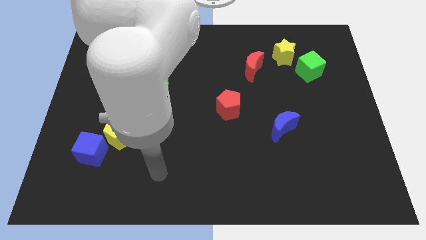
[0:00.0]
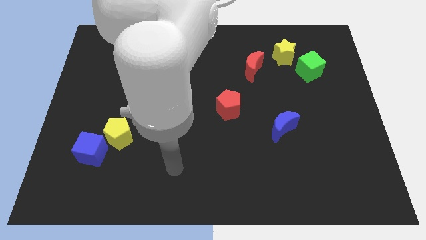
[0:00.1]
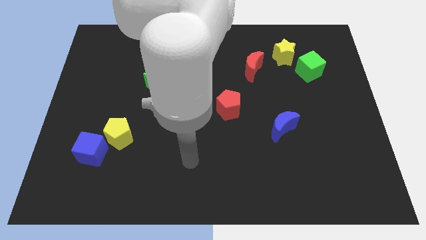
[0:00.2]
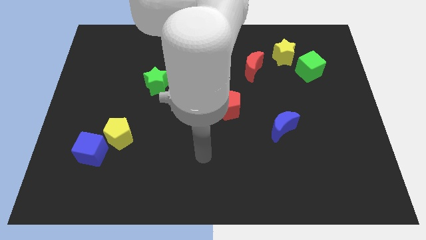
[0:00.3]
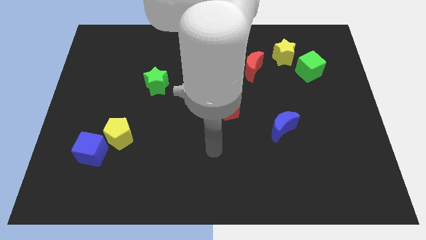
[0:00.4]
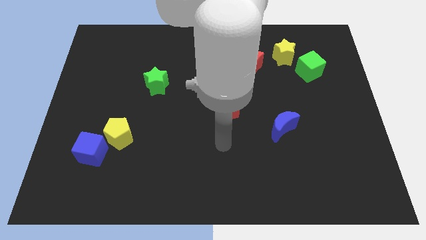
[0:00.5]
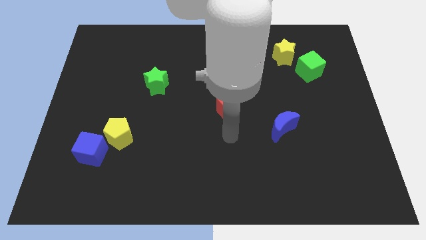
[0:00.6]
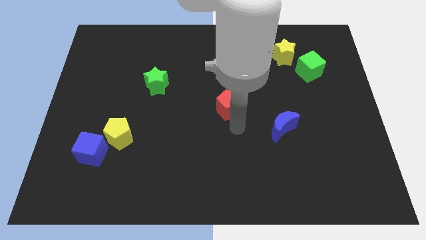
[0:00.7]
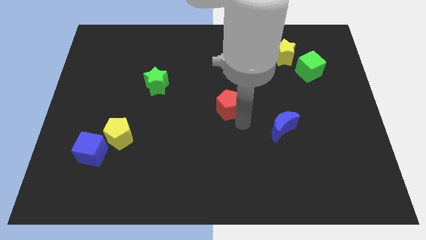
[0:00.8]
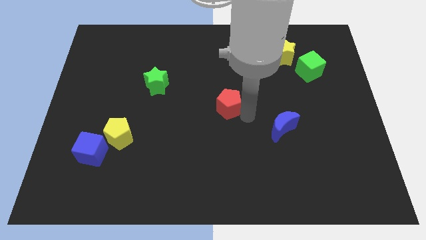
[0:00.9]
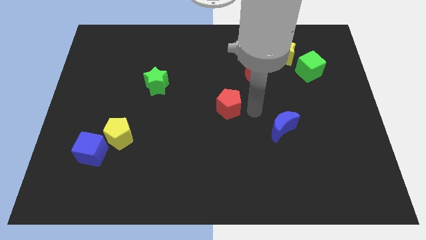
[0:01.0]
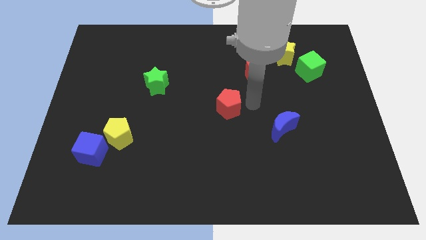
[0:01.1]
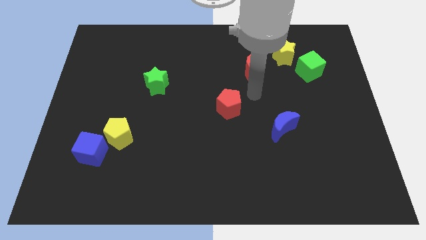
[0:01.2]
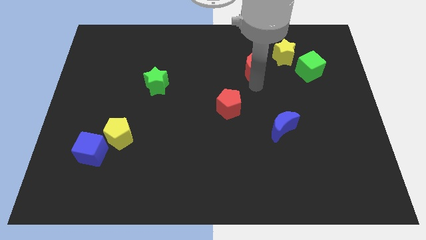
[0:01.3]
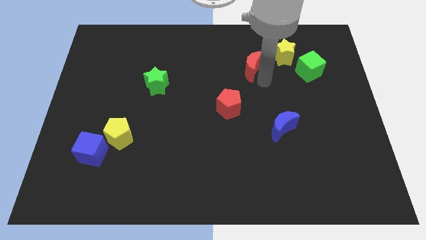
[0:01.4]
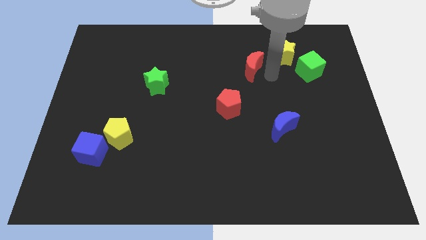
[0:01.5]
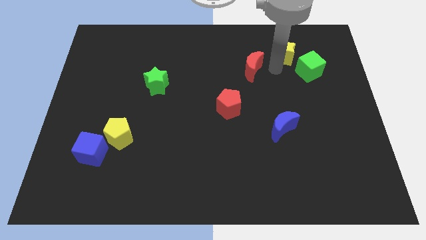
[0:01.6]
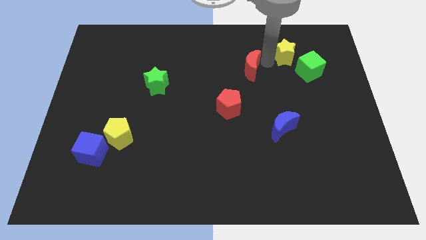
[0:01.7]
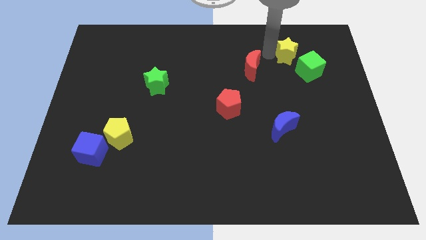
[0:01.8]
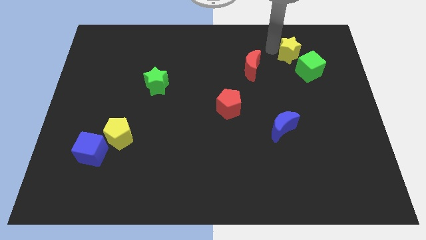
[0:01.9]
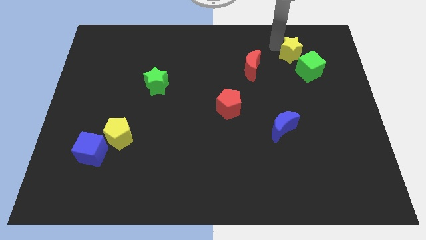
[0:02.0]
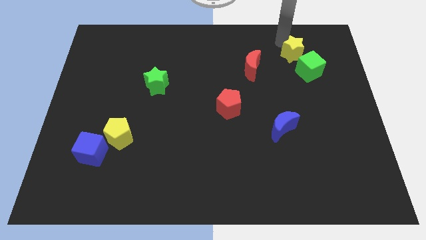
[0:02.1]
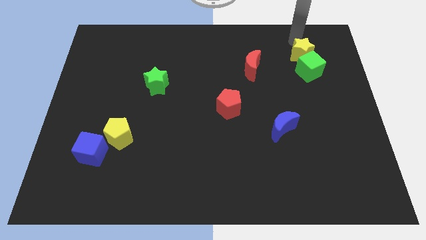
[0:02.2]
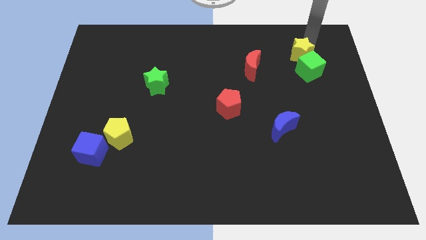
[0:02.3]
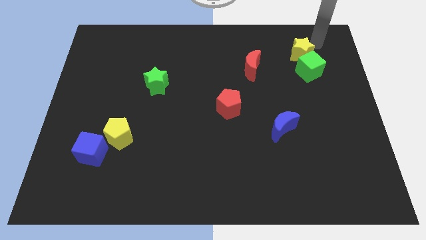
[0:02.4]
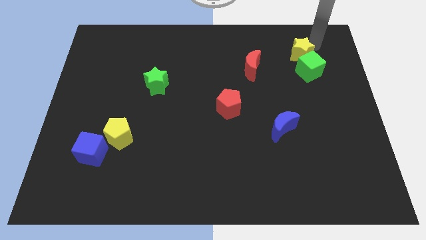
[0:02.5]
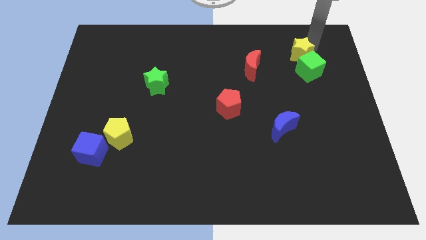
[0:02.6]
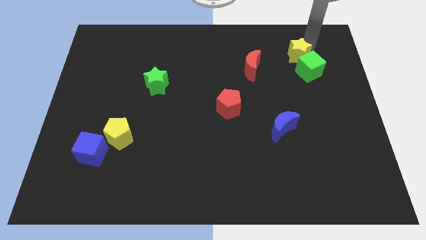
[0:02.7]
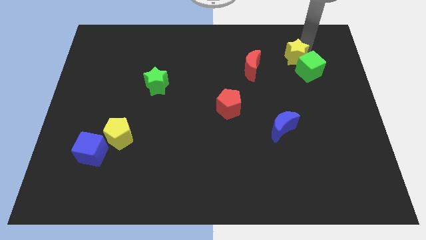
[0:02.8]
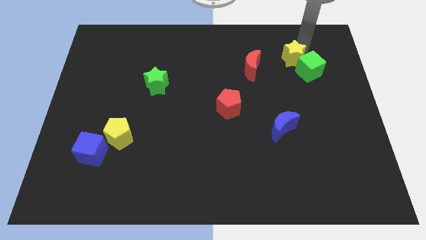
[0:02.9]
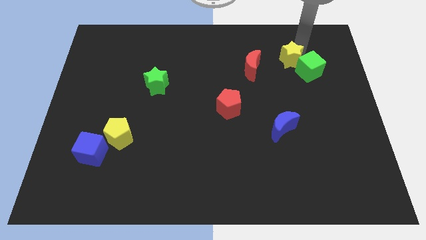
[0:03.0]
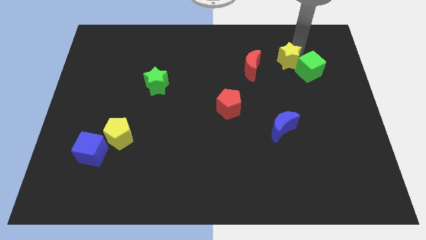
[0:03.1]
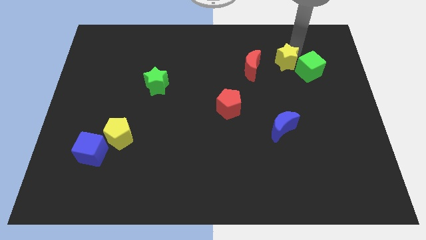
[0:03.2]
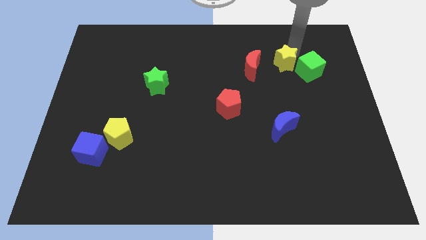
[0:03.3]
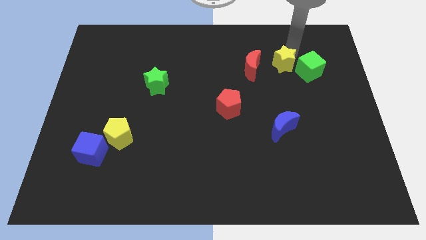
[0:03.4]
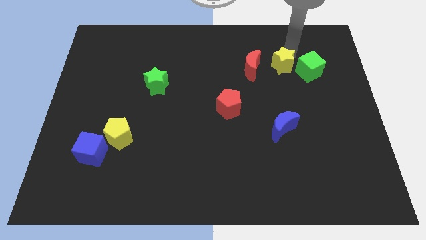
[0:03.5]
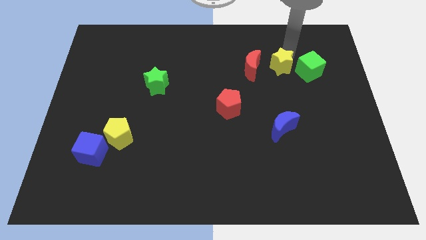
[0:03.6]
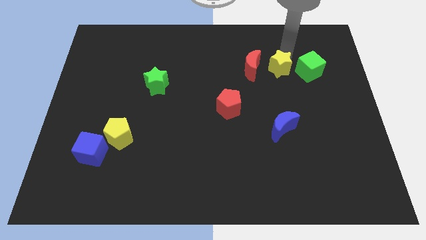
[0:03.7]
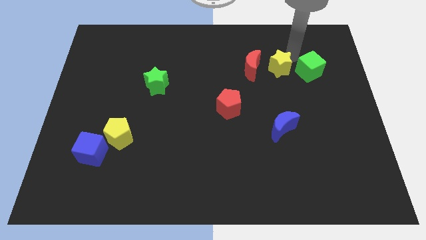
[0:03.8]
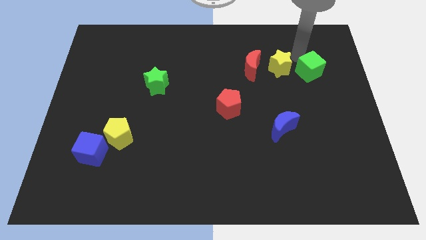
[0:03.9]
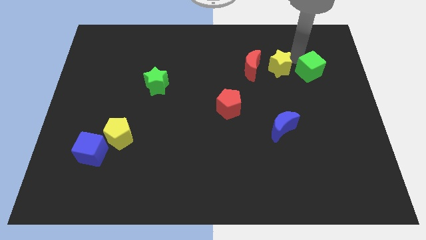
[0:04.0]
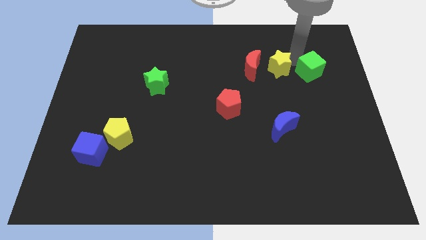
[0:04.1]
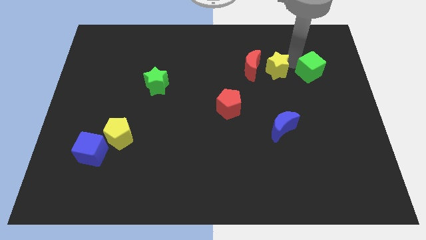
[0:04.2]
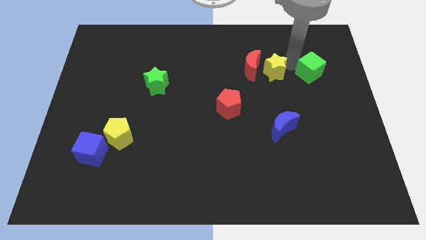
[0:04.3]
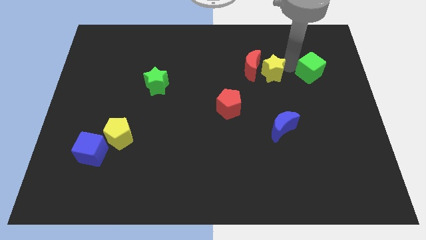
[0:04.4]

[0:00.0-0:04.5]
slightly slide the yellow star down and left

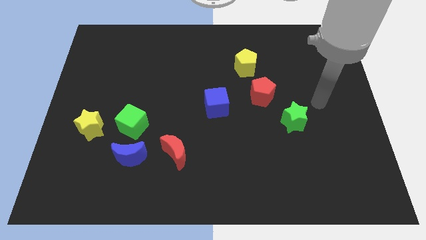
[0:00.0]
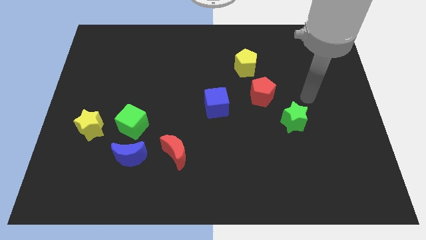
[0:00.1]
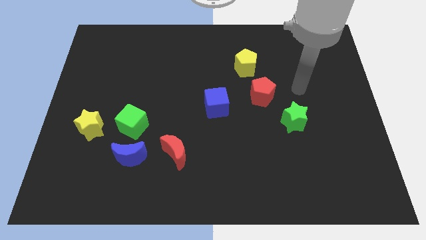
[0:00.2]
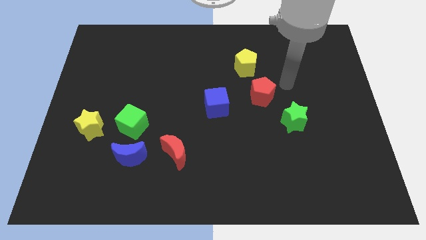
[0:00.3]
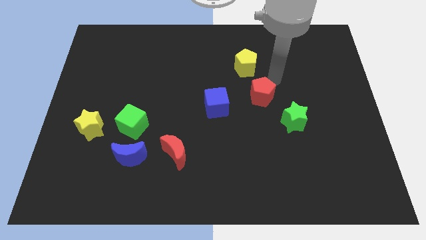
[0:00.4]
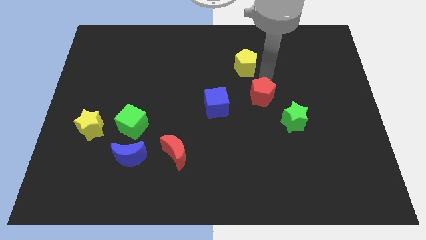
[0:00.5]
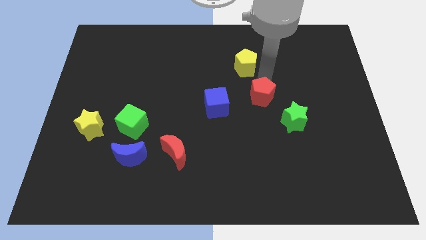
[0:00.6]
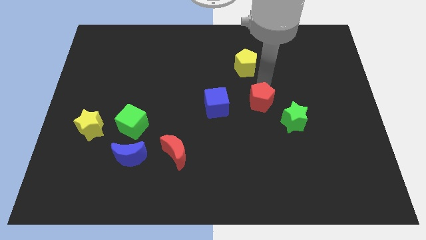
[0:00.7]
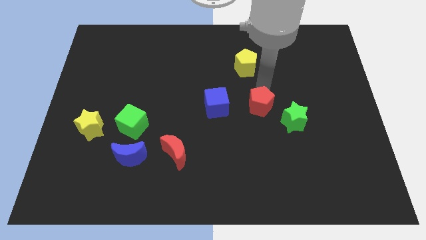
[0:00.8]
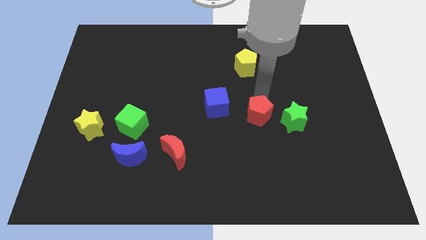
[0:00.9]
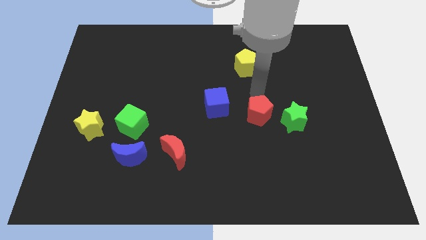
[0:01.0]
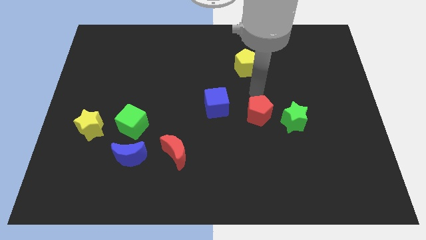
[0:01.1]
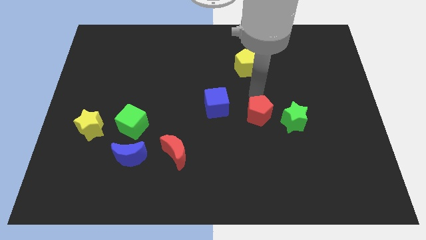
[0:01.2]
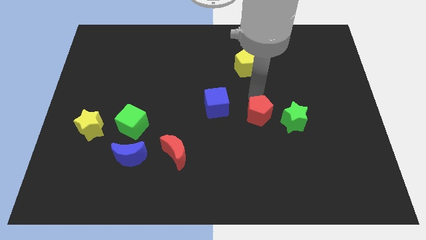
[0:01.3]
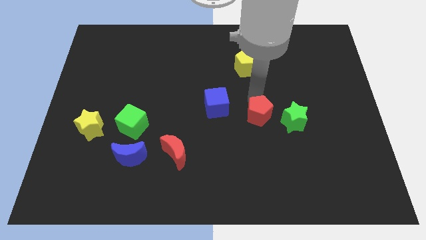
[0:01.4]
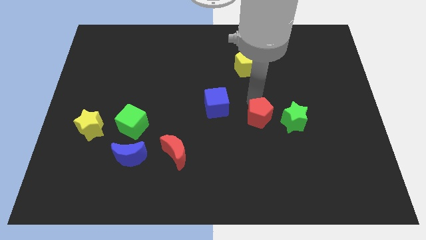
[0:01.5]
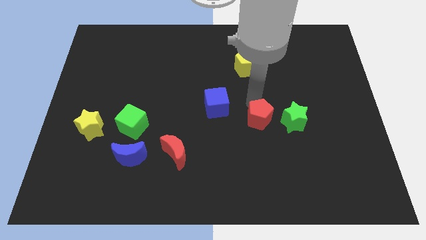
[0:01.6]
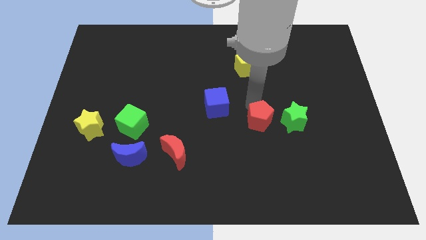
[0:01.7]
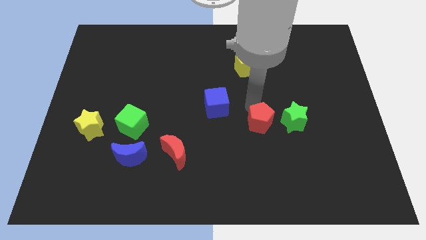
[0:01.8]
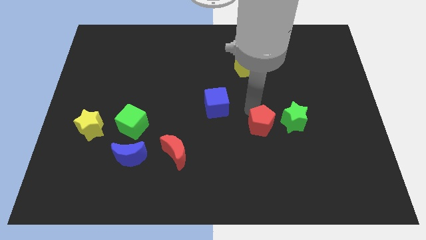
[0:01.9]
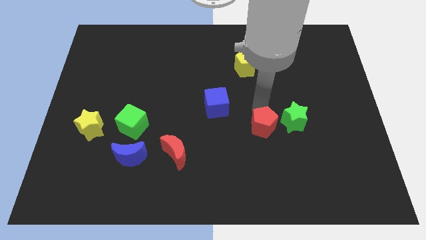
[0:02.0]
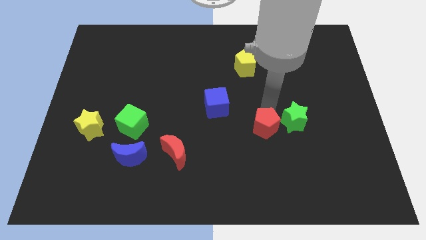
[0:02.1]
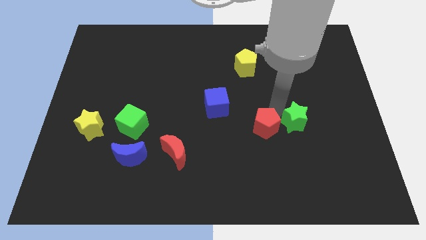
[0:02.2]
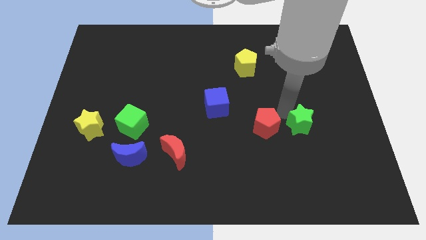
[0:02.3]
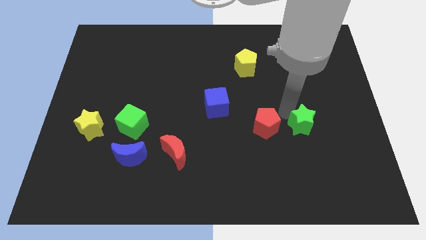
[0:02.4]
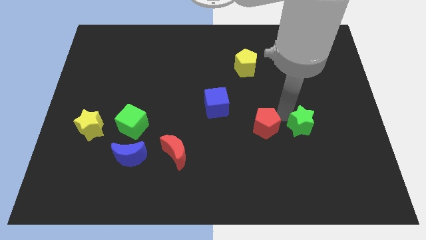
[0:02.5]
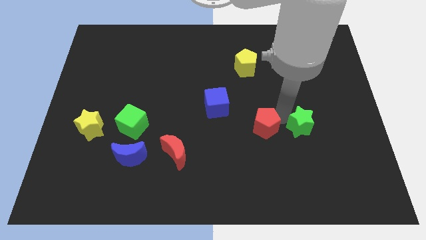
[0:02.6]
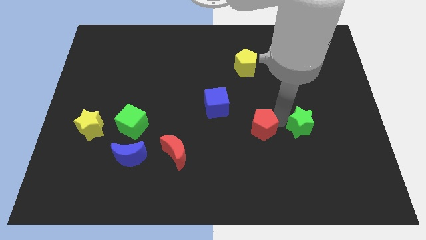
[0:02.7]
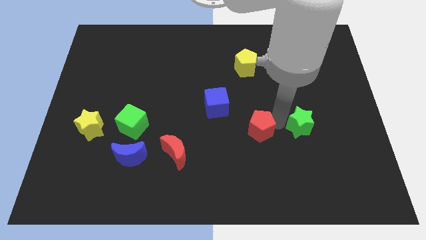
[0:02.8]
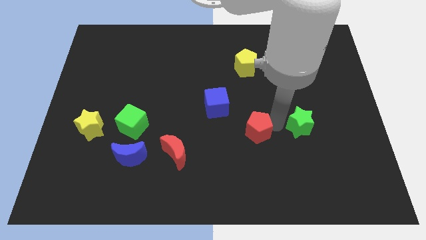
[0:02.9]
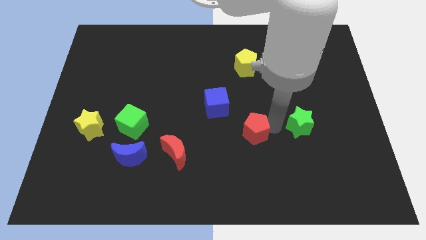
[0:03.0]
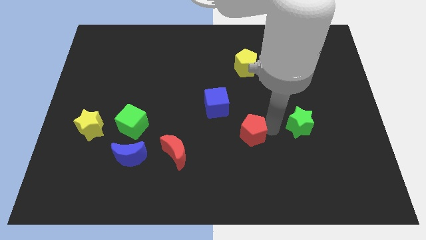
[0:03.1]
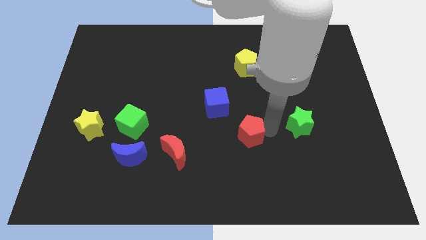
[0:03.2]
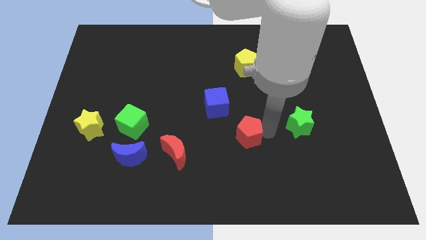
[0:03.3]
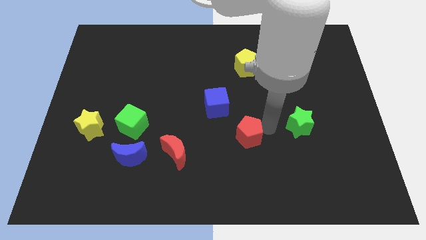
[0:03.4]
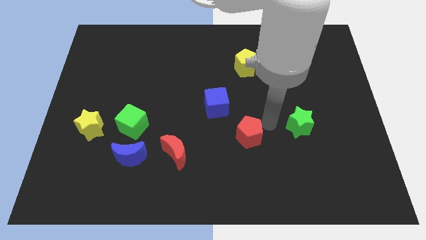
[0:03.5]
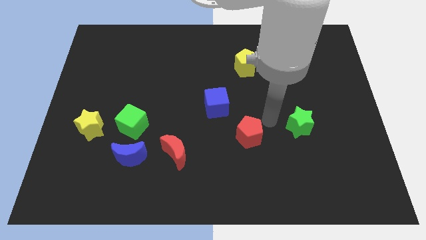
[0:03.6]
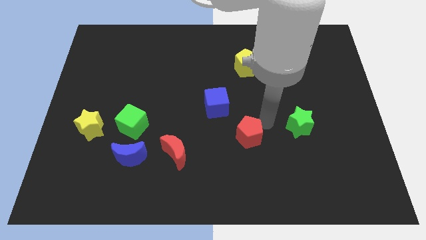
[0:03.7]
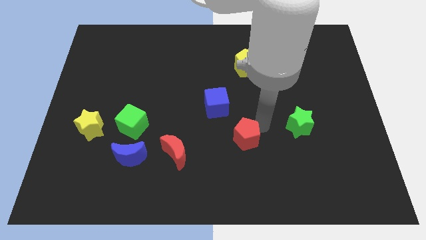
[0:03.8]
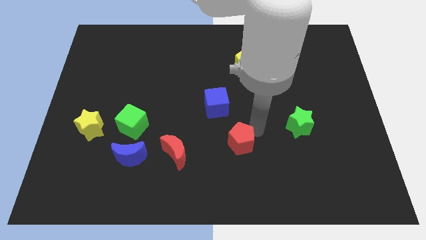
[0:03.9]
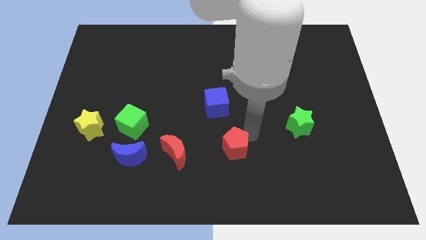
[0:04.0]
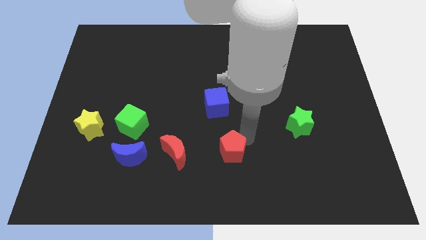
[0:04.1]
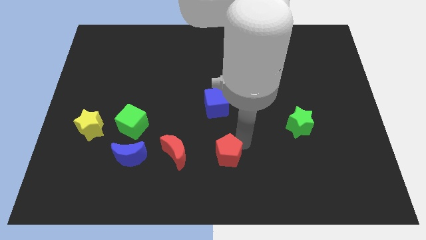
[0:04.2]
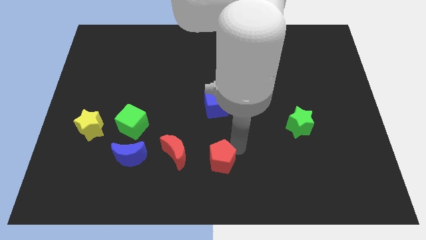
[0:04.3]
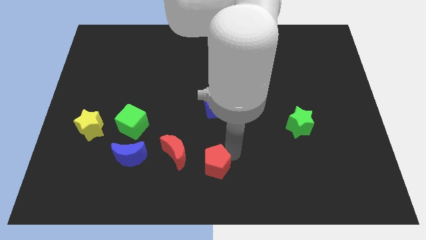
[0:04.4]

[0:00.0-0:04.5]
move the red pentagon downwards and to the left
